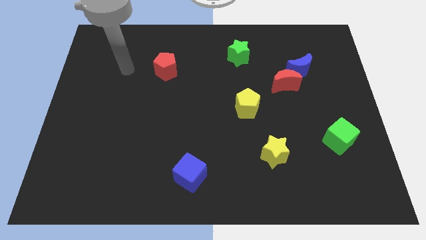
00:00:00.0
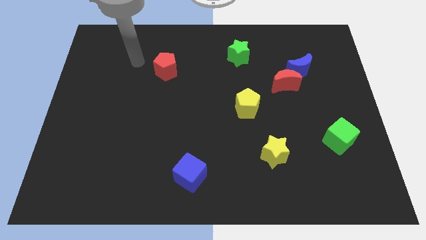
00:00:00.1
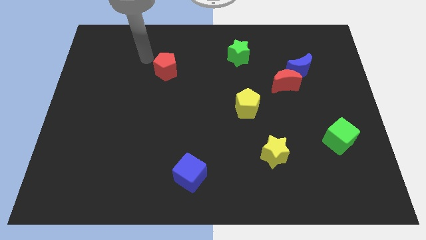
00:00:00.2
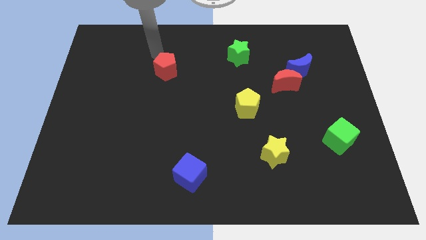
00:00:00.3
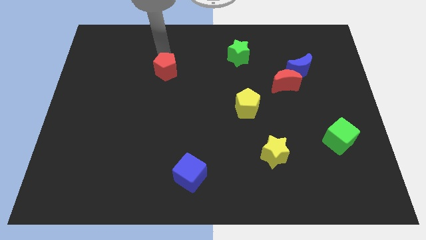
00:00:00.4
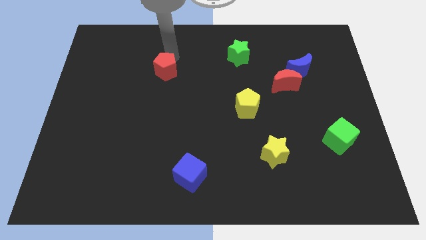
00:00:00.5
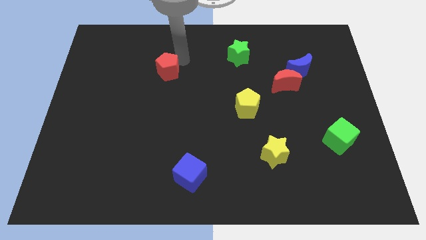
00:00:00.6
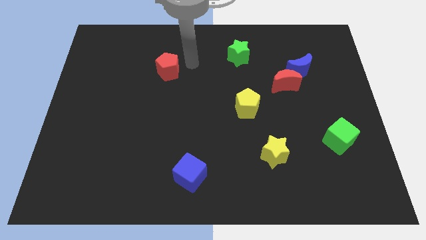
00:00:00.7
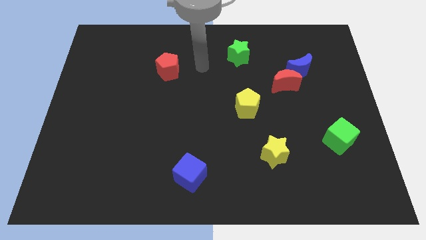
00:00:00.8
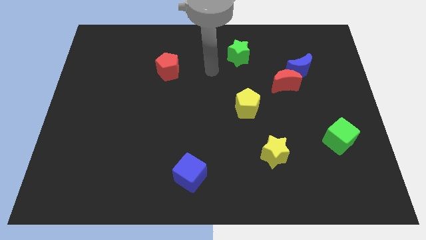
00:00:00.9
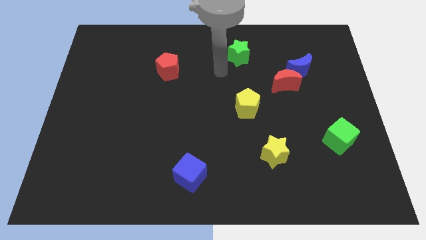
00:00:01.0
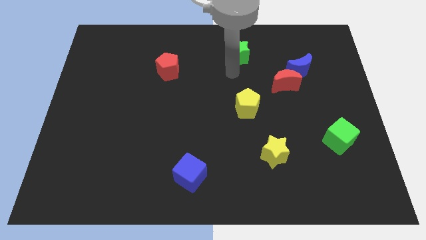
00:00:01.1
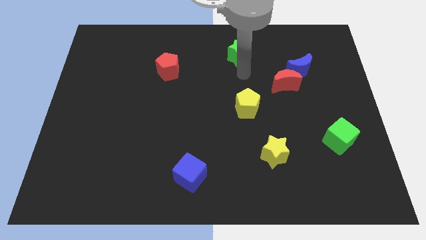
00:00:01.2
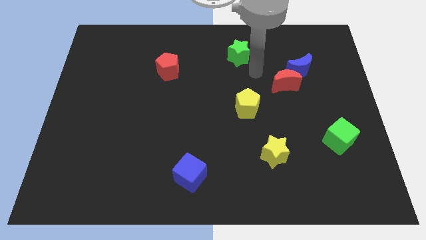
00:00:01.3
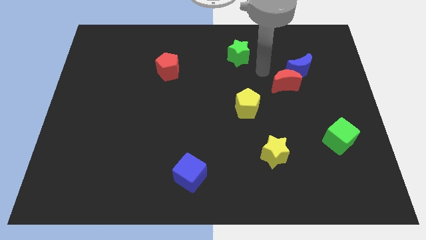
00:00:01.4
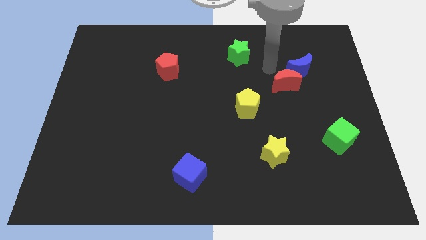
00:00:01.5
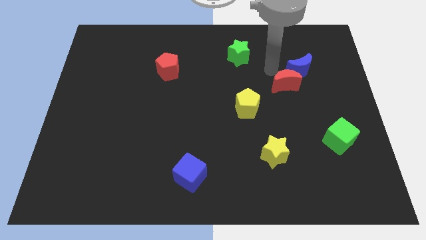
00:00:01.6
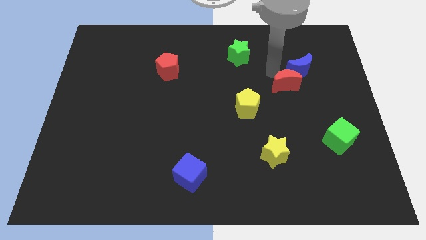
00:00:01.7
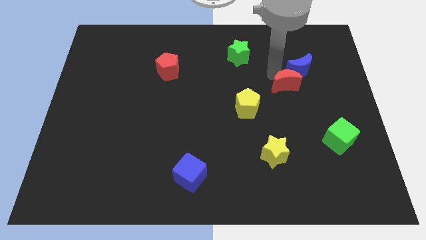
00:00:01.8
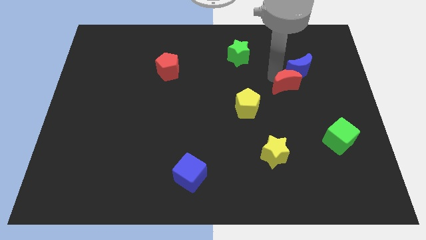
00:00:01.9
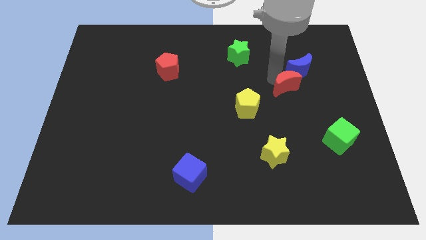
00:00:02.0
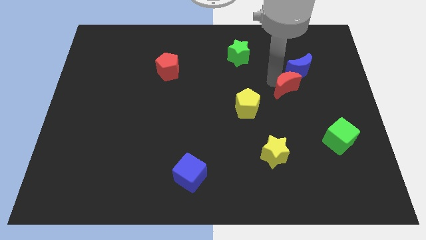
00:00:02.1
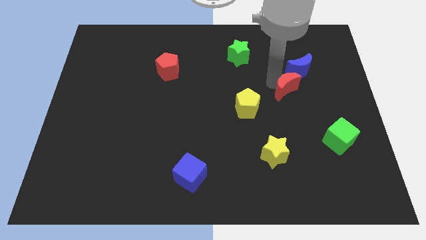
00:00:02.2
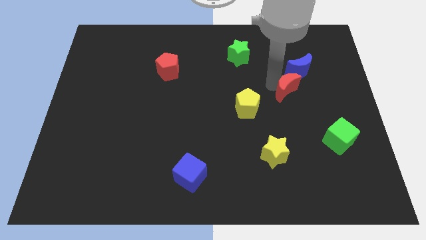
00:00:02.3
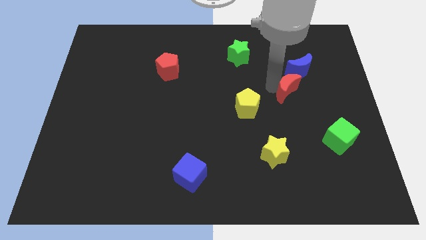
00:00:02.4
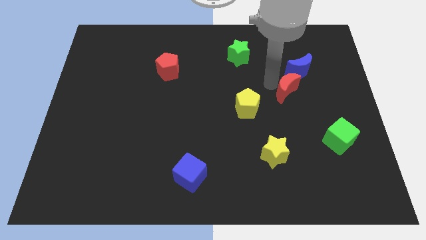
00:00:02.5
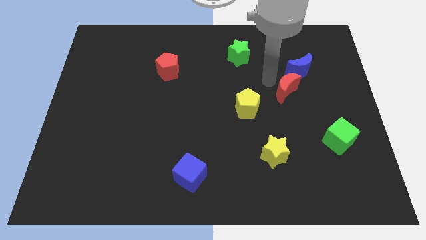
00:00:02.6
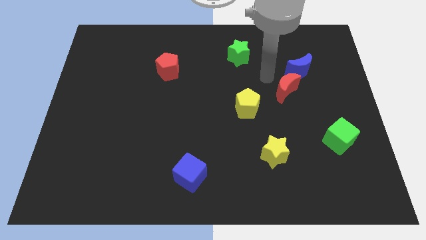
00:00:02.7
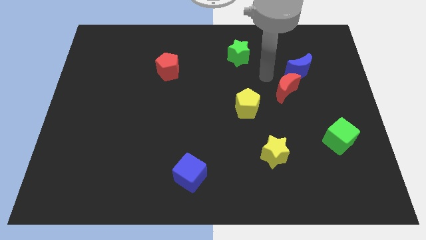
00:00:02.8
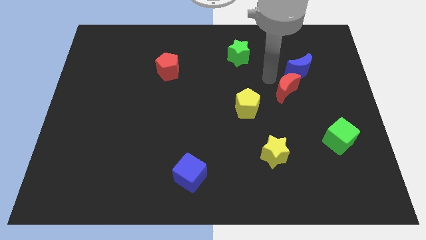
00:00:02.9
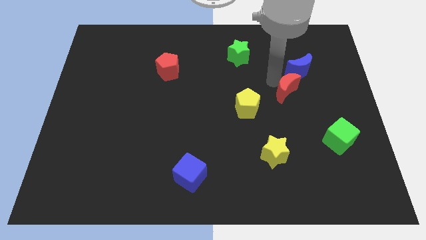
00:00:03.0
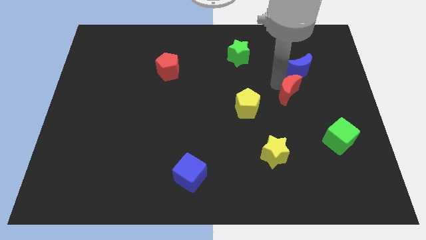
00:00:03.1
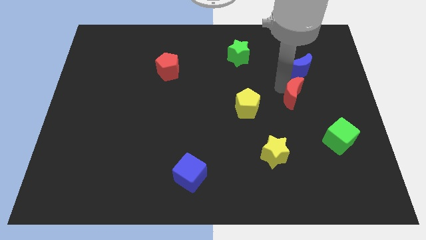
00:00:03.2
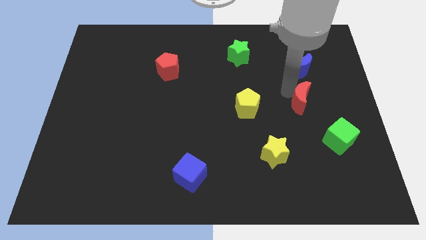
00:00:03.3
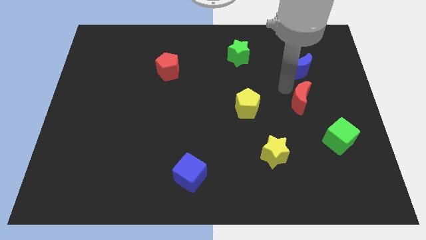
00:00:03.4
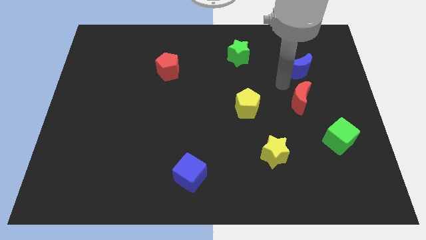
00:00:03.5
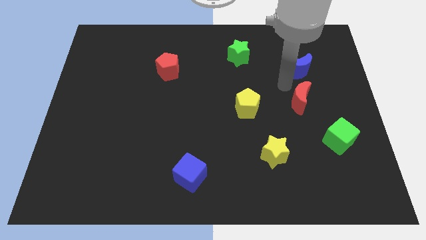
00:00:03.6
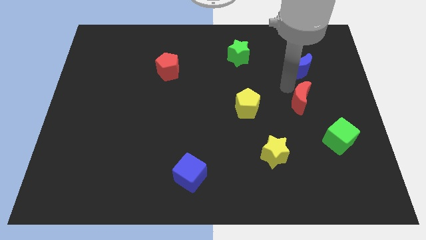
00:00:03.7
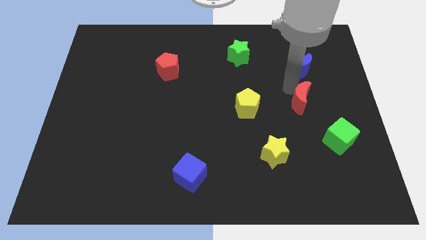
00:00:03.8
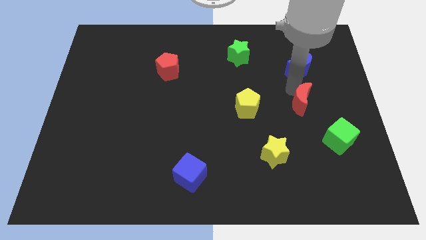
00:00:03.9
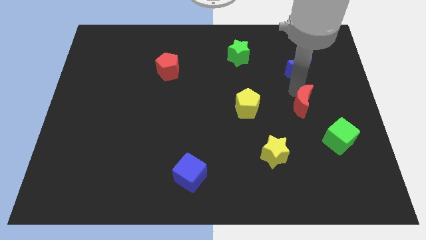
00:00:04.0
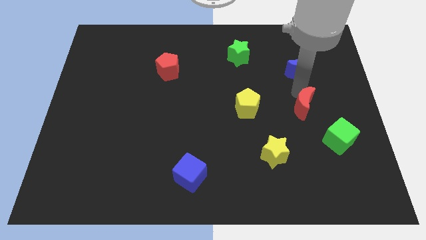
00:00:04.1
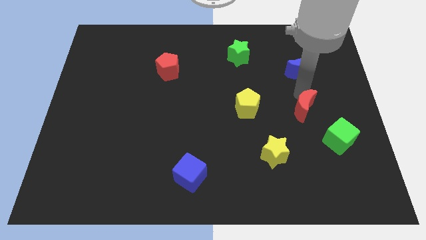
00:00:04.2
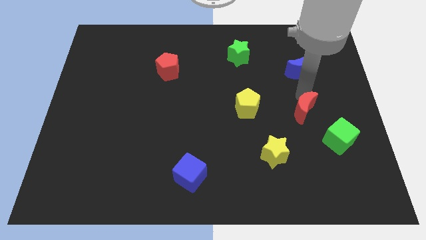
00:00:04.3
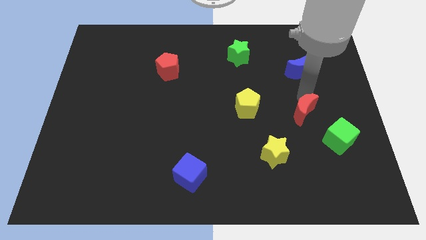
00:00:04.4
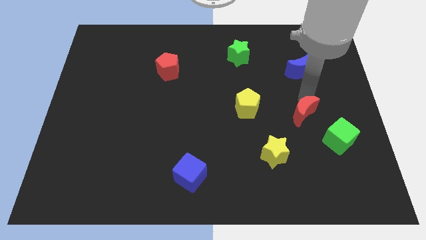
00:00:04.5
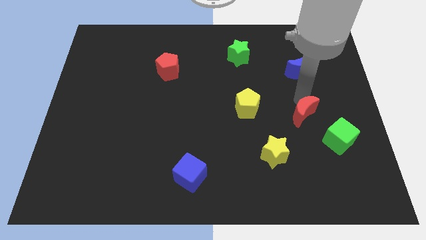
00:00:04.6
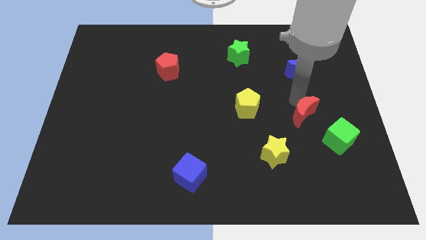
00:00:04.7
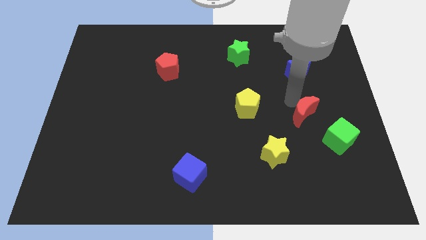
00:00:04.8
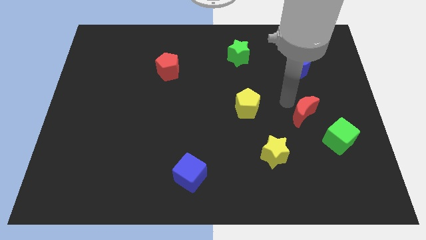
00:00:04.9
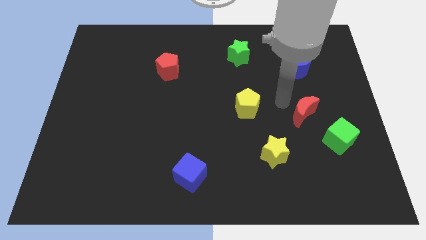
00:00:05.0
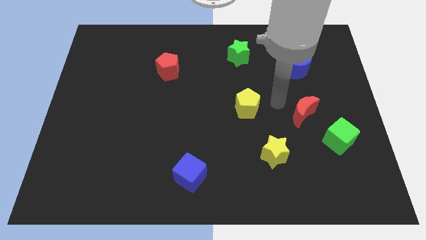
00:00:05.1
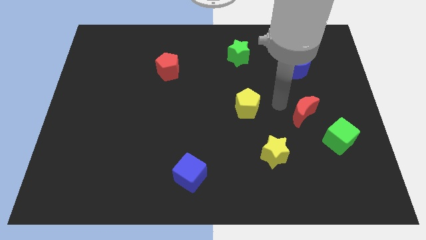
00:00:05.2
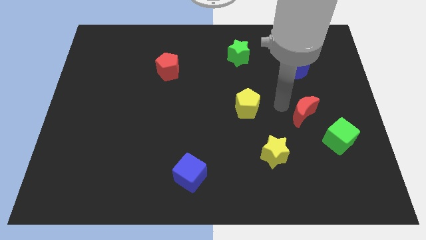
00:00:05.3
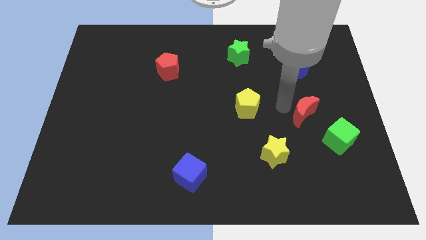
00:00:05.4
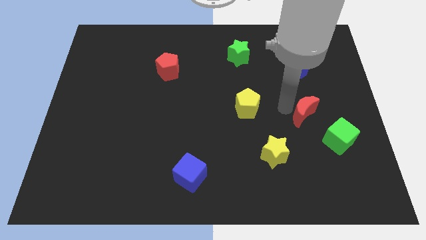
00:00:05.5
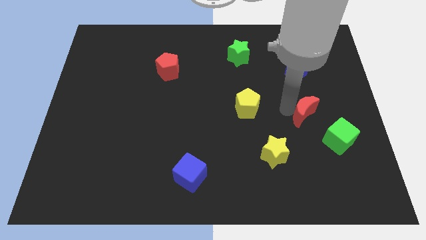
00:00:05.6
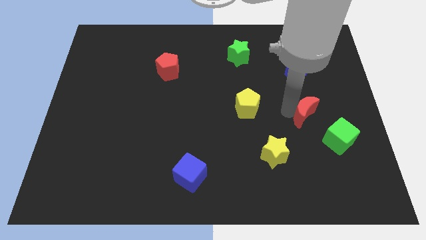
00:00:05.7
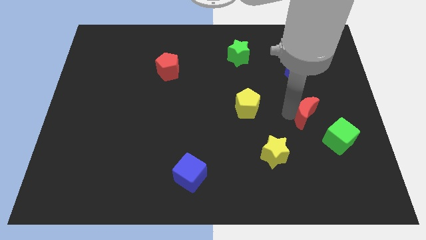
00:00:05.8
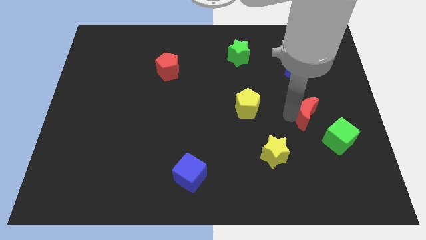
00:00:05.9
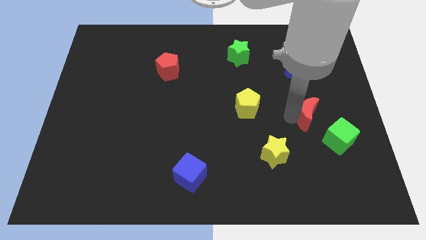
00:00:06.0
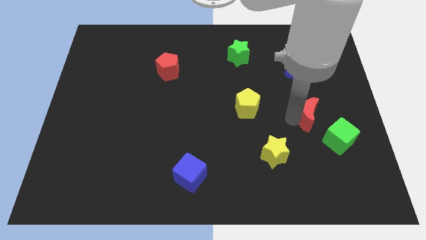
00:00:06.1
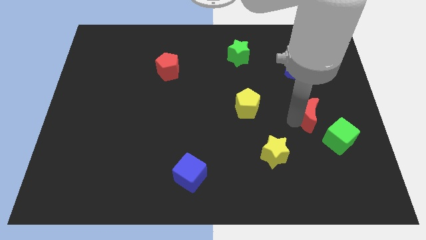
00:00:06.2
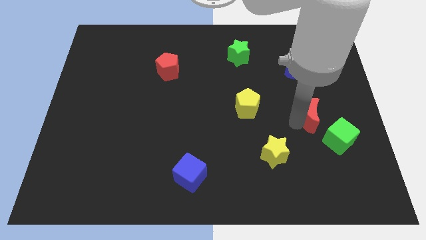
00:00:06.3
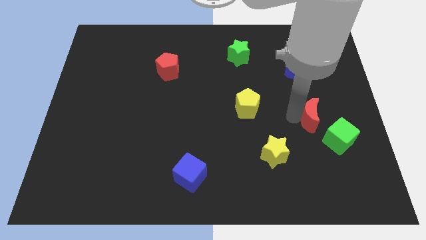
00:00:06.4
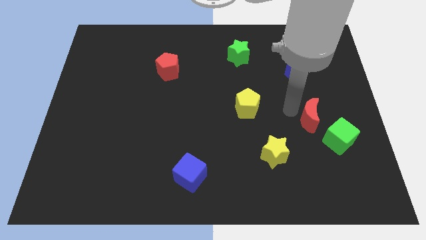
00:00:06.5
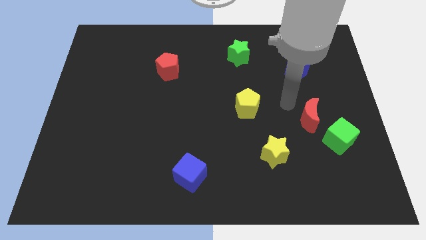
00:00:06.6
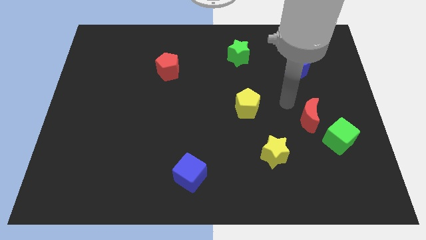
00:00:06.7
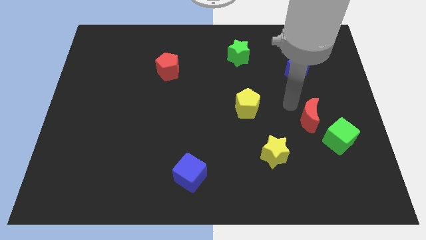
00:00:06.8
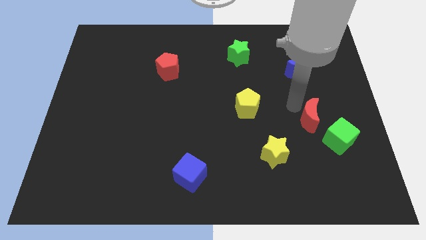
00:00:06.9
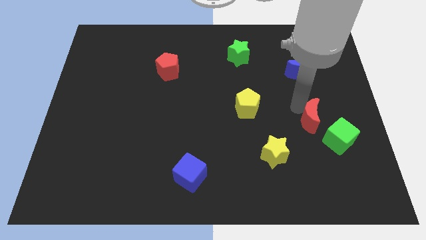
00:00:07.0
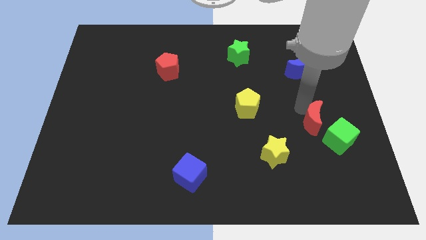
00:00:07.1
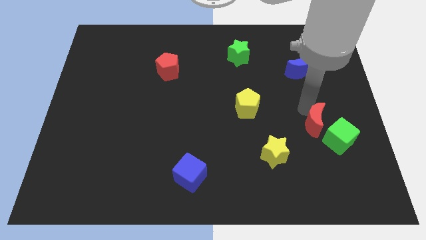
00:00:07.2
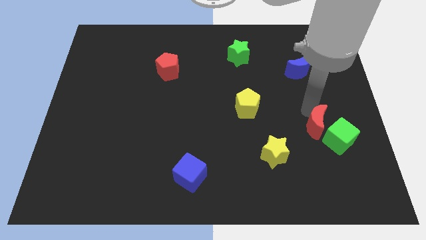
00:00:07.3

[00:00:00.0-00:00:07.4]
move the red moon next to the green cube

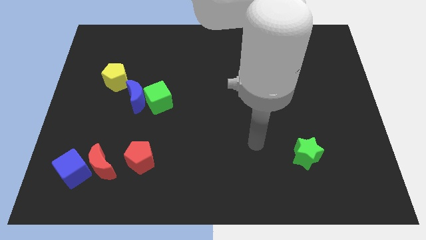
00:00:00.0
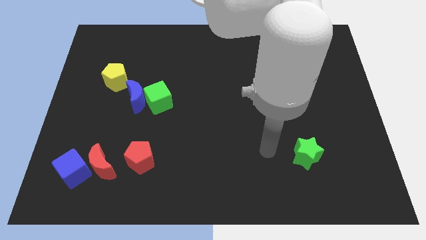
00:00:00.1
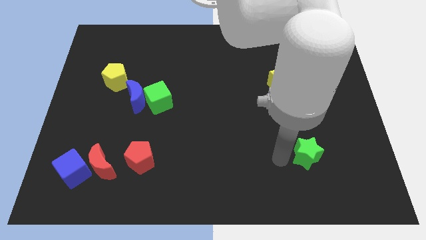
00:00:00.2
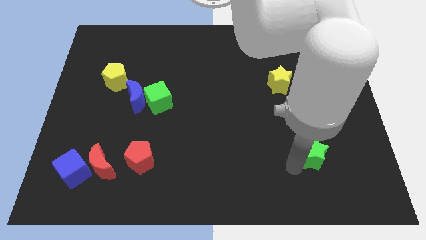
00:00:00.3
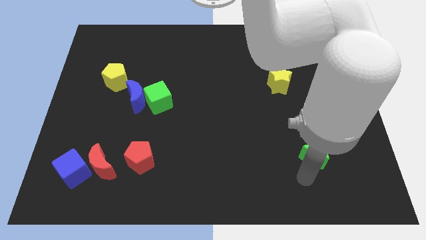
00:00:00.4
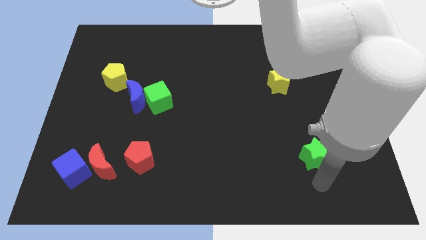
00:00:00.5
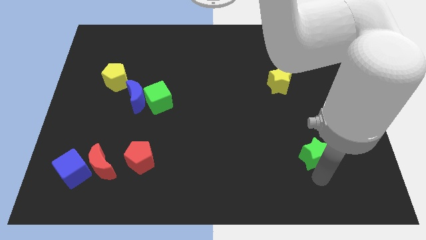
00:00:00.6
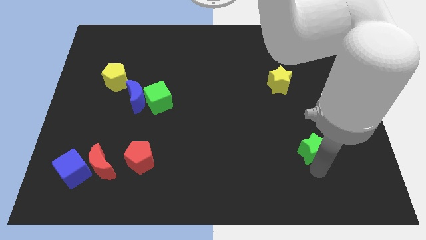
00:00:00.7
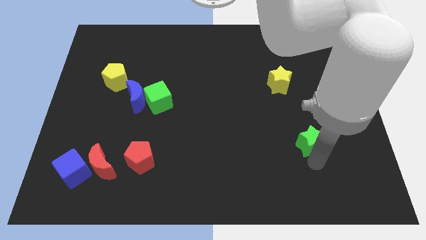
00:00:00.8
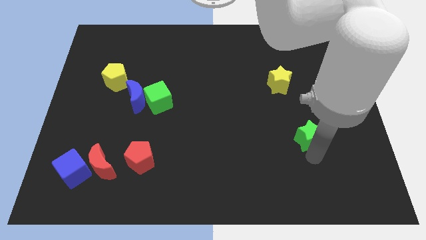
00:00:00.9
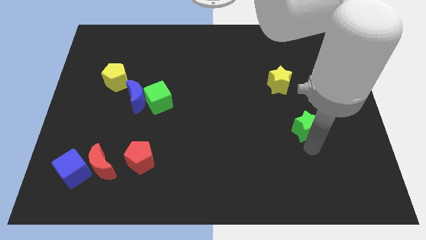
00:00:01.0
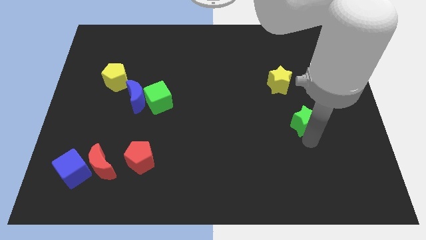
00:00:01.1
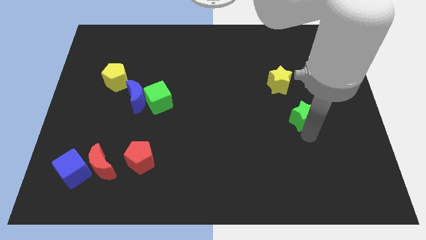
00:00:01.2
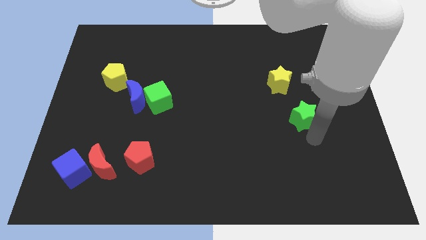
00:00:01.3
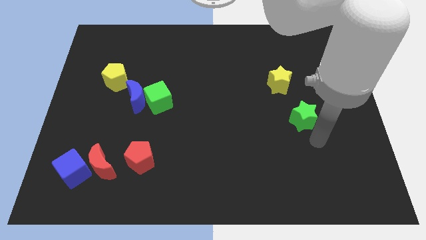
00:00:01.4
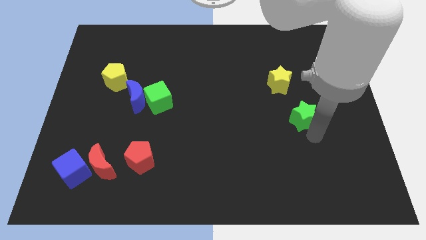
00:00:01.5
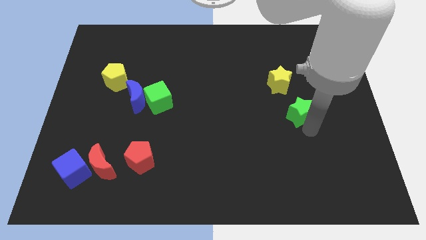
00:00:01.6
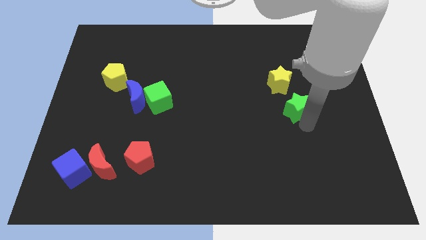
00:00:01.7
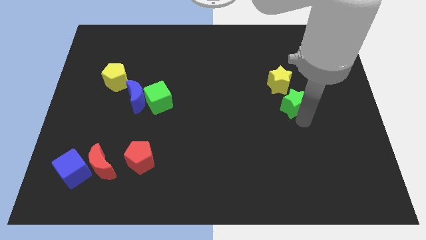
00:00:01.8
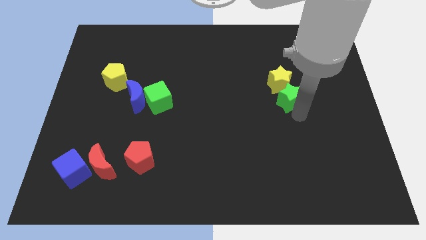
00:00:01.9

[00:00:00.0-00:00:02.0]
push the green star close to the yellow star
